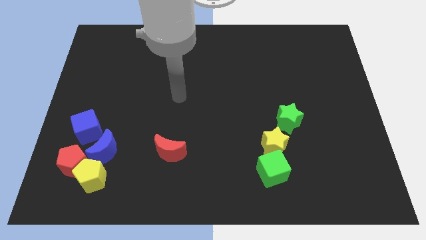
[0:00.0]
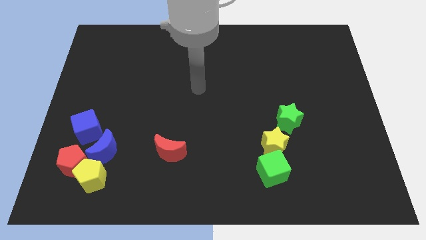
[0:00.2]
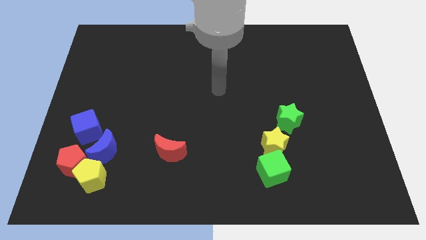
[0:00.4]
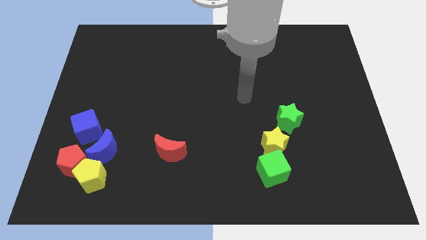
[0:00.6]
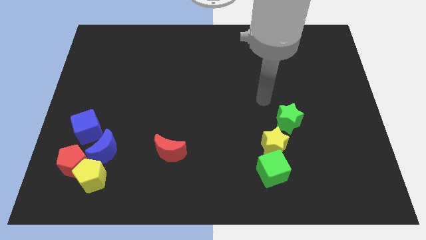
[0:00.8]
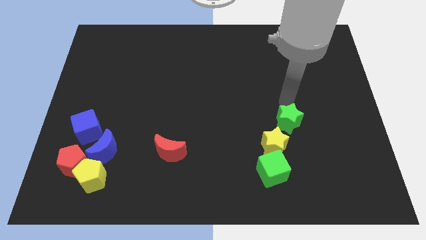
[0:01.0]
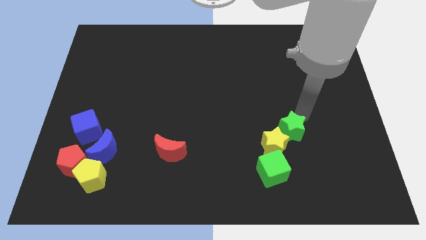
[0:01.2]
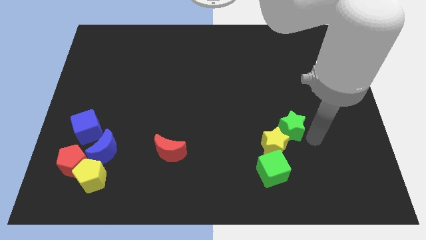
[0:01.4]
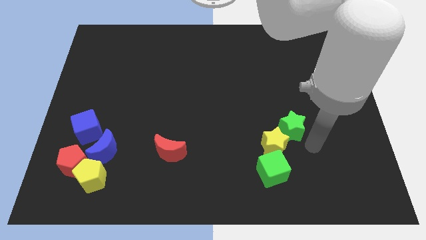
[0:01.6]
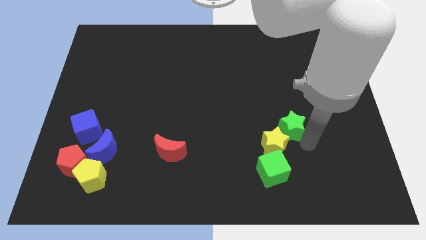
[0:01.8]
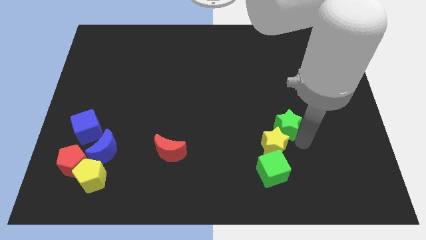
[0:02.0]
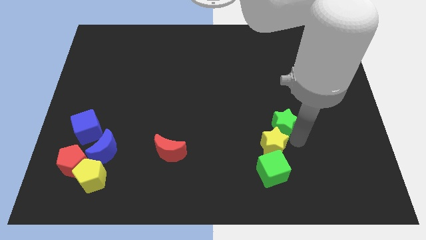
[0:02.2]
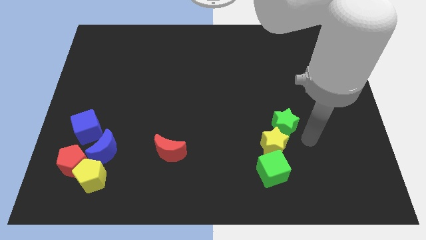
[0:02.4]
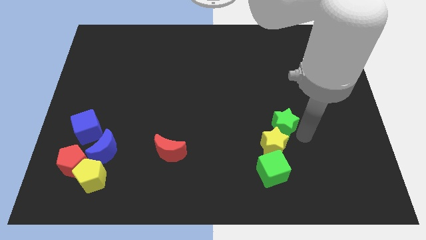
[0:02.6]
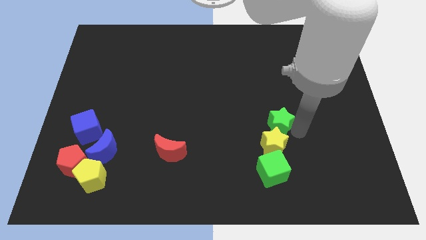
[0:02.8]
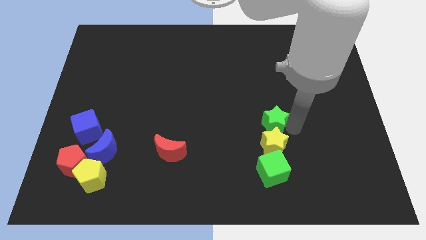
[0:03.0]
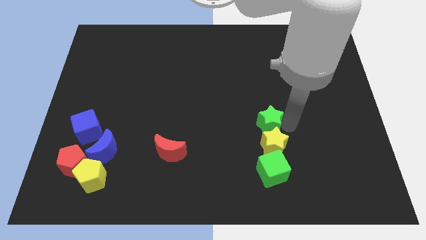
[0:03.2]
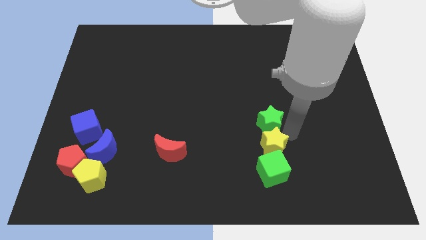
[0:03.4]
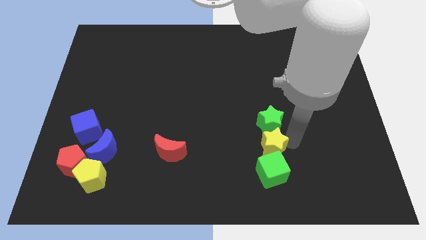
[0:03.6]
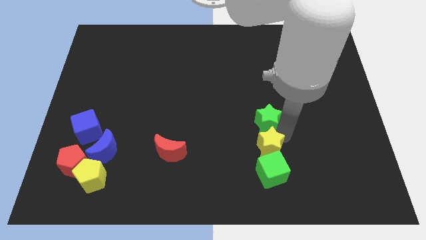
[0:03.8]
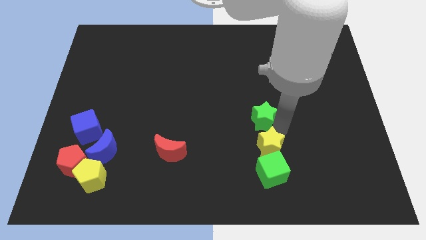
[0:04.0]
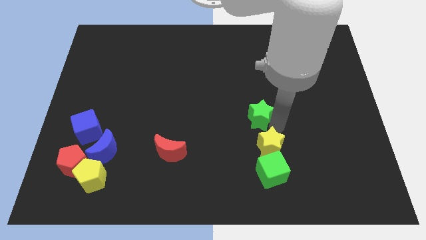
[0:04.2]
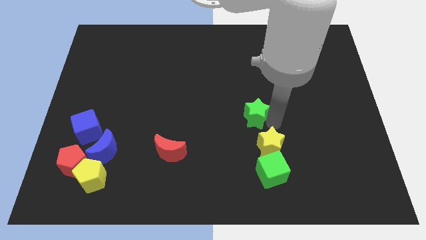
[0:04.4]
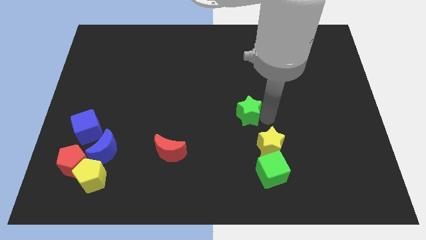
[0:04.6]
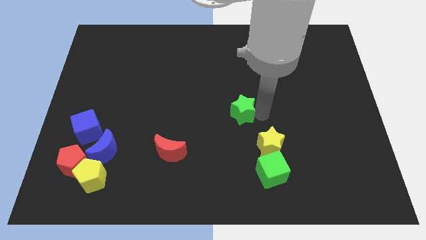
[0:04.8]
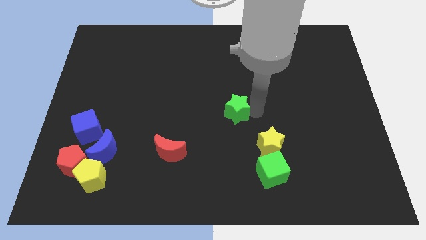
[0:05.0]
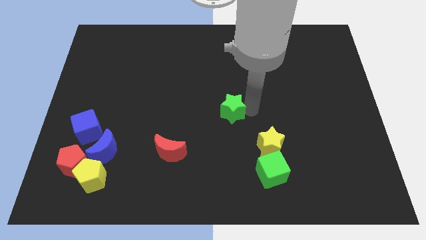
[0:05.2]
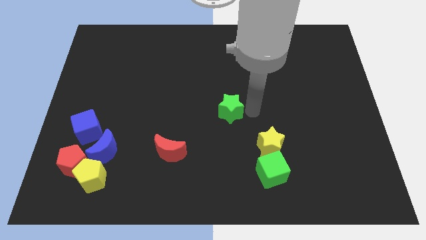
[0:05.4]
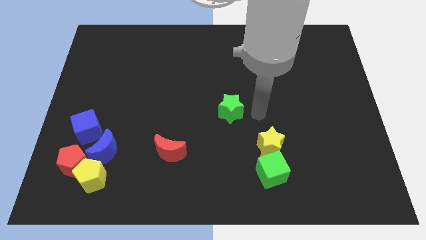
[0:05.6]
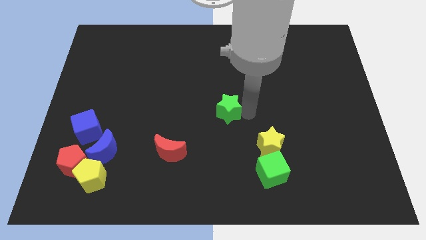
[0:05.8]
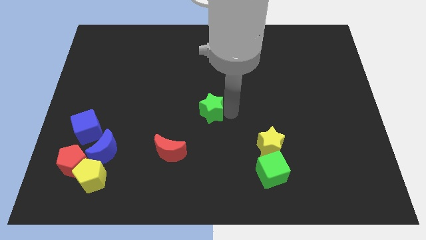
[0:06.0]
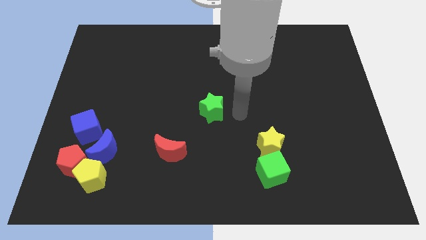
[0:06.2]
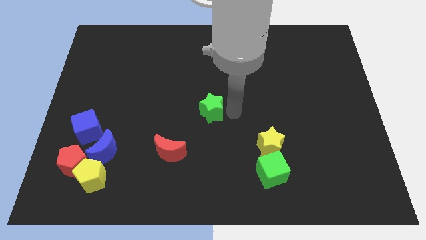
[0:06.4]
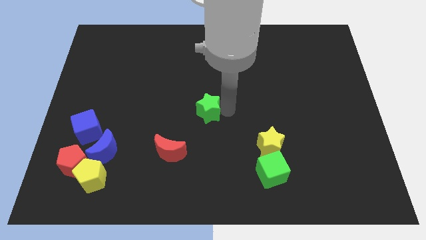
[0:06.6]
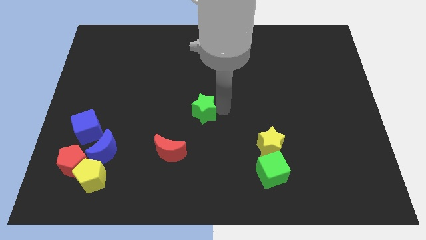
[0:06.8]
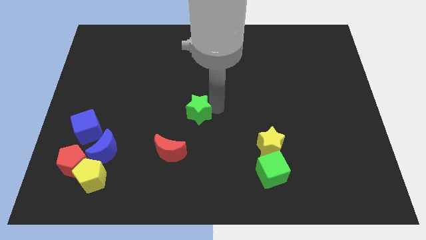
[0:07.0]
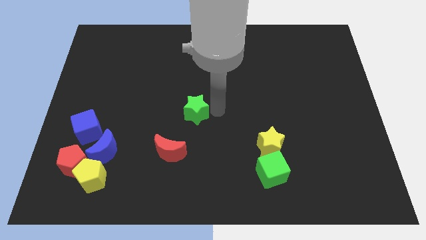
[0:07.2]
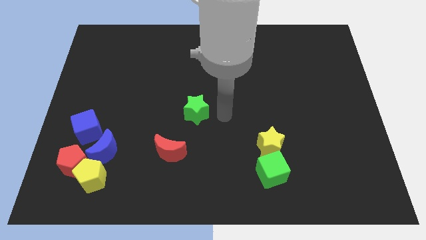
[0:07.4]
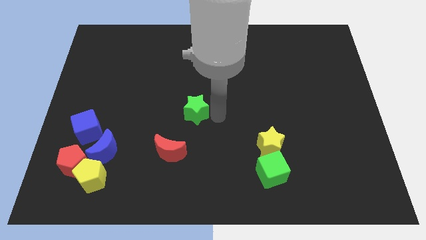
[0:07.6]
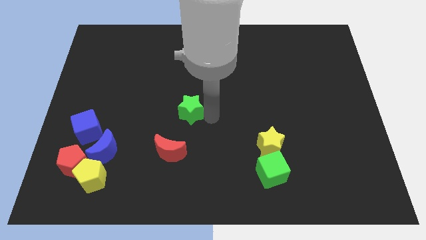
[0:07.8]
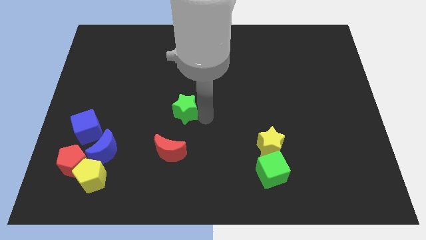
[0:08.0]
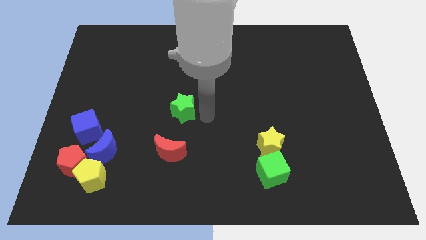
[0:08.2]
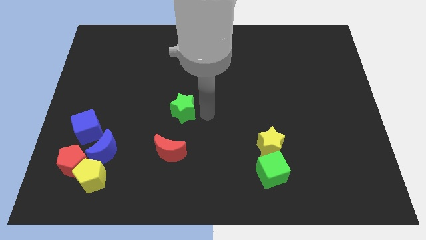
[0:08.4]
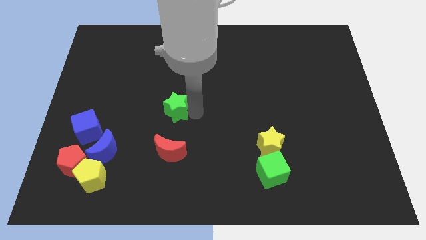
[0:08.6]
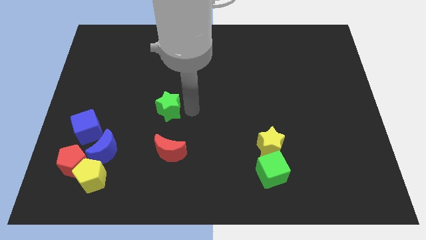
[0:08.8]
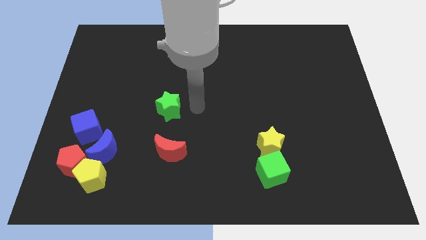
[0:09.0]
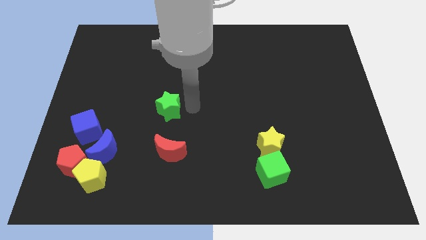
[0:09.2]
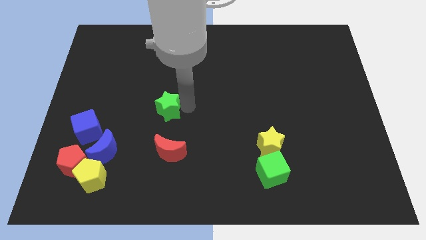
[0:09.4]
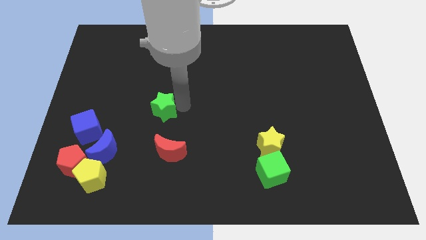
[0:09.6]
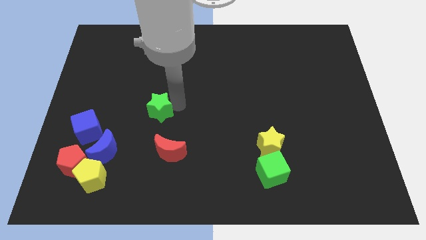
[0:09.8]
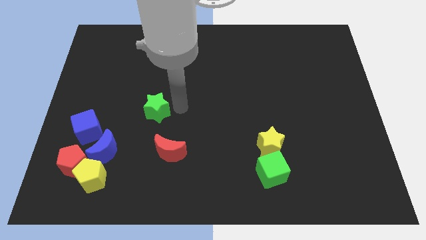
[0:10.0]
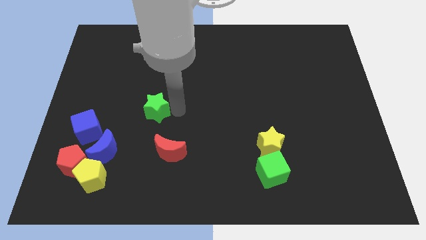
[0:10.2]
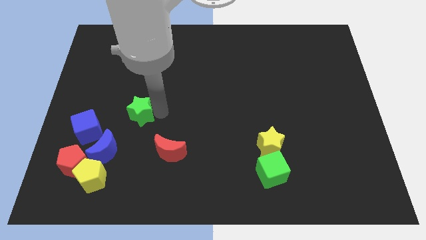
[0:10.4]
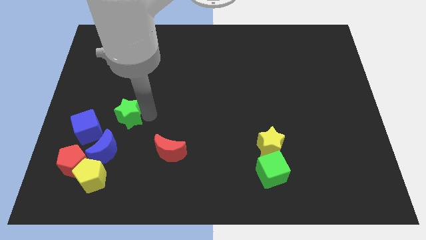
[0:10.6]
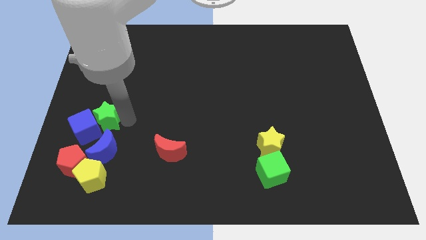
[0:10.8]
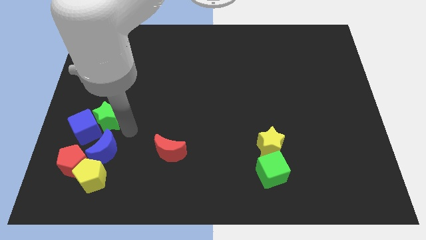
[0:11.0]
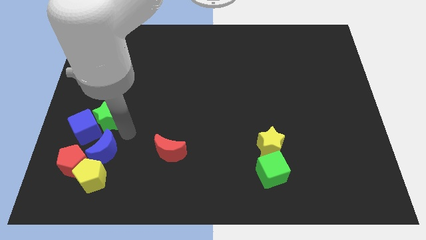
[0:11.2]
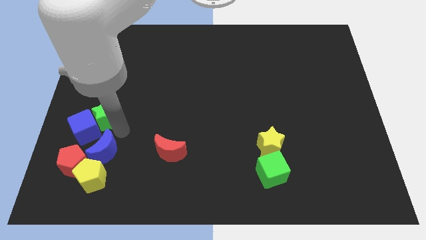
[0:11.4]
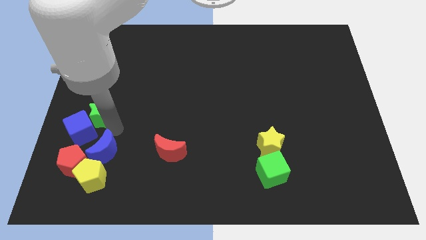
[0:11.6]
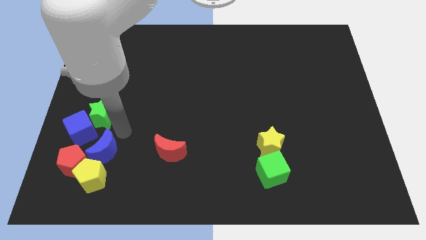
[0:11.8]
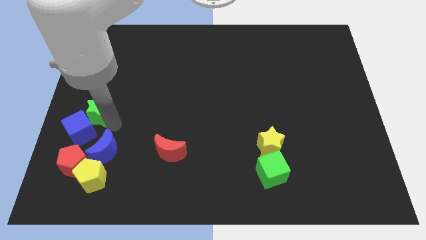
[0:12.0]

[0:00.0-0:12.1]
move the green star to the left side of the board

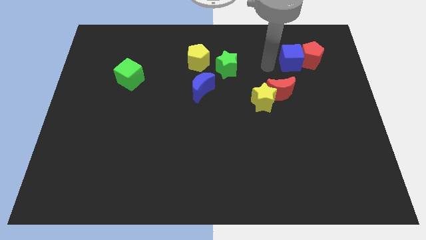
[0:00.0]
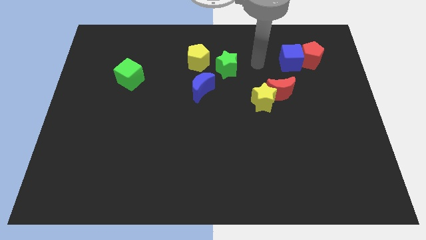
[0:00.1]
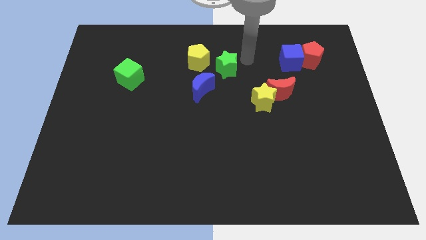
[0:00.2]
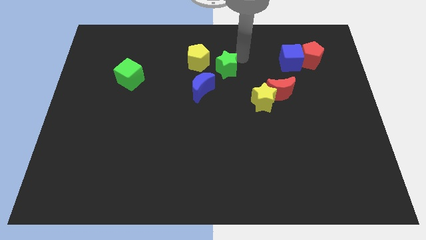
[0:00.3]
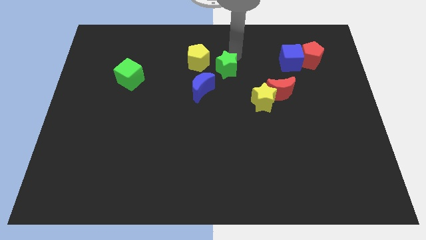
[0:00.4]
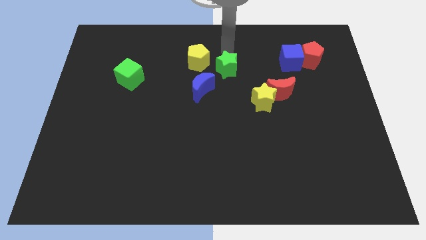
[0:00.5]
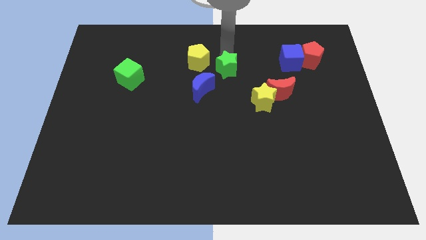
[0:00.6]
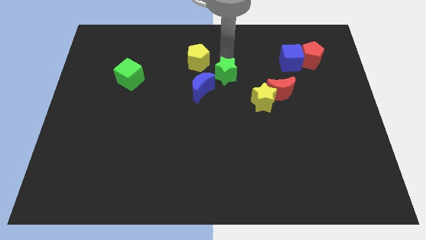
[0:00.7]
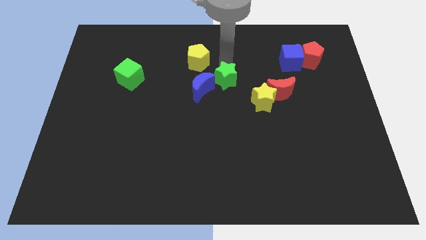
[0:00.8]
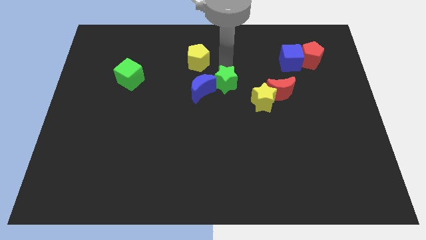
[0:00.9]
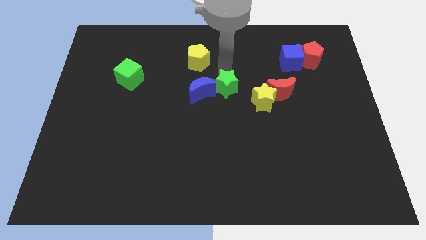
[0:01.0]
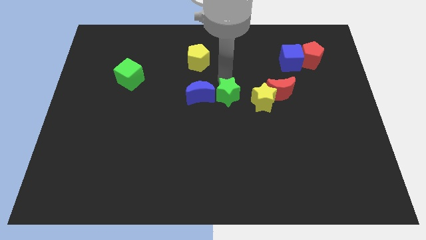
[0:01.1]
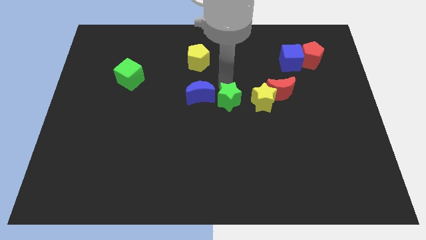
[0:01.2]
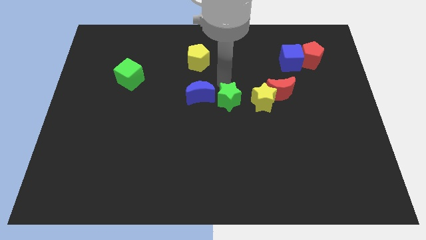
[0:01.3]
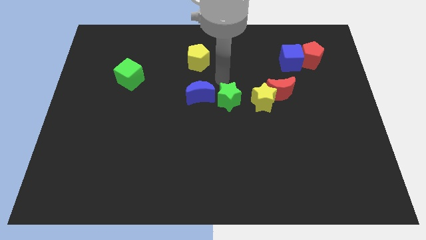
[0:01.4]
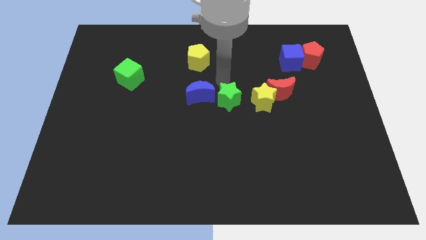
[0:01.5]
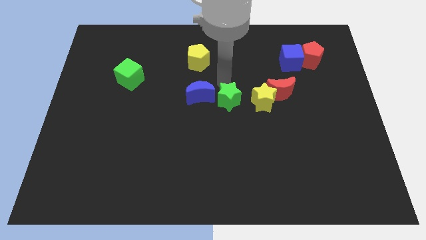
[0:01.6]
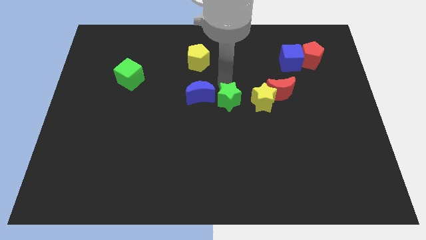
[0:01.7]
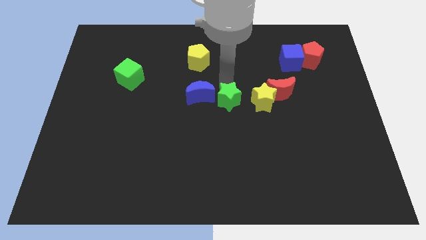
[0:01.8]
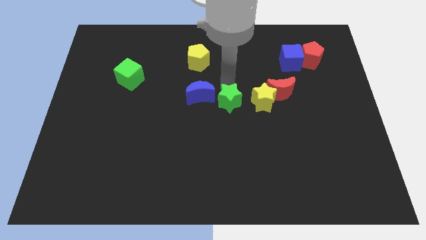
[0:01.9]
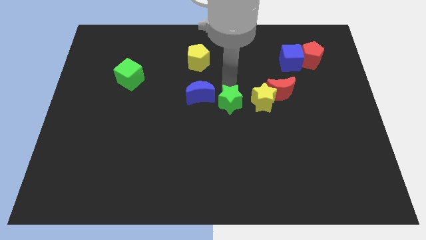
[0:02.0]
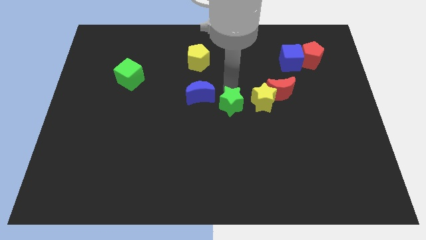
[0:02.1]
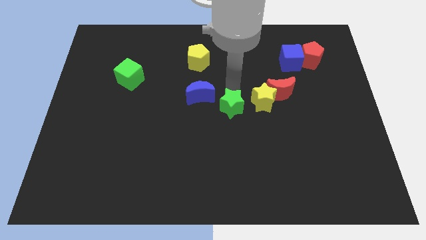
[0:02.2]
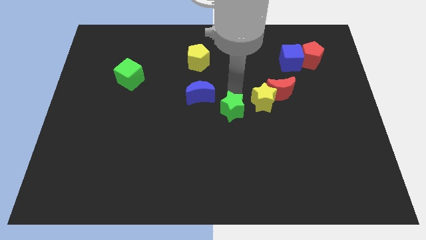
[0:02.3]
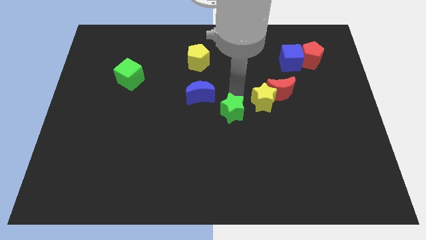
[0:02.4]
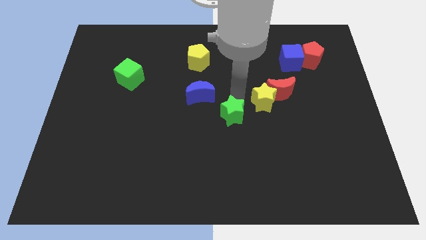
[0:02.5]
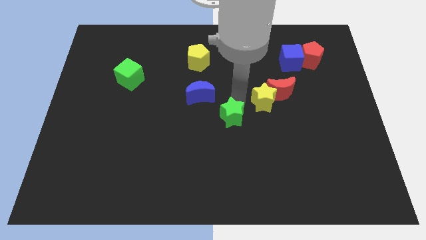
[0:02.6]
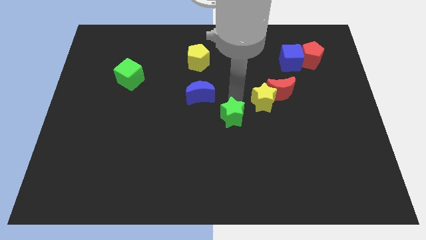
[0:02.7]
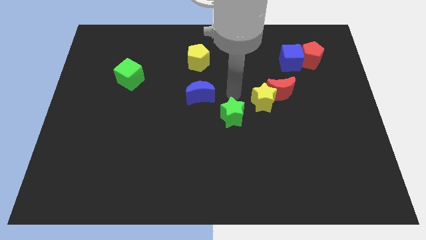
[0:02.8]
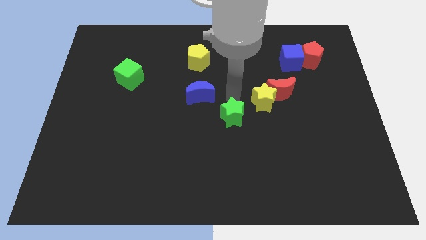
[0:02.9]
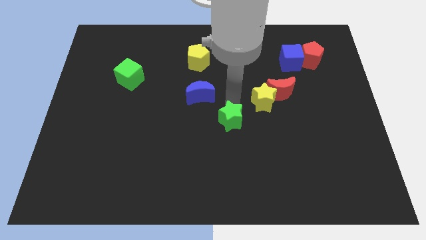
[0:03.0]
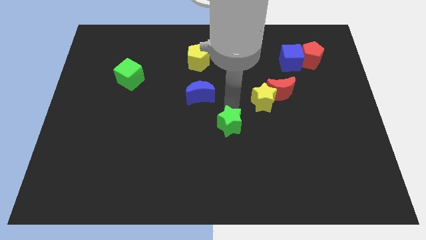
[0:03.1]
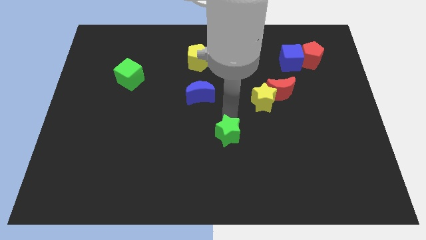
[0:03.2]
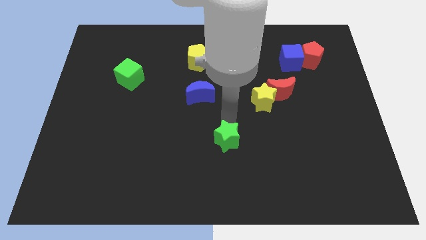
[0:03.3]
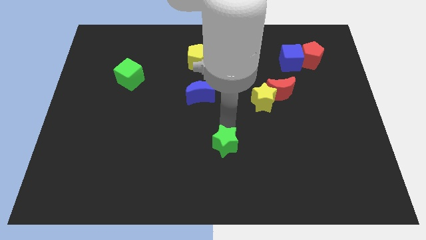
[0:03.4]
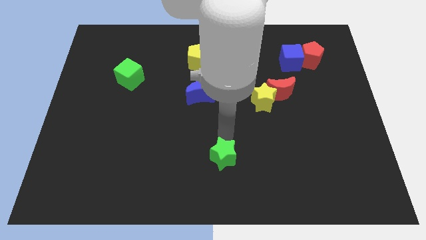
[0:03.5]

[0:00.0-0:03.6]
slide the green star to the bottom side
